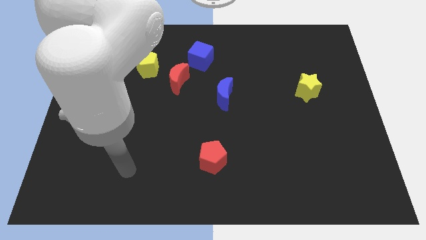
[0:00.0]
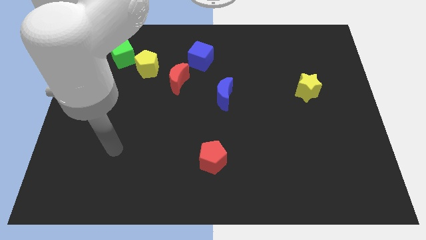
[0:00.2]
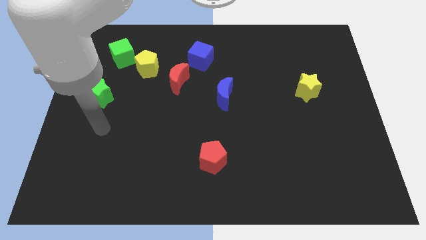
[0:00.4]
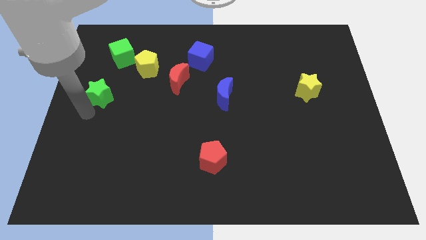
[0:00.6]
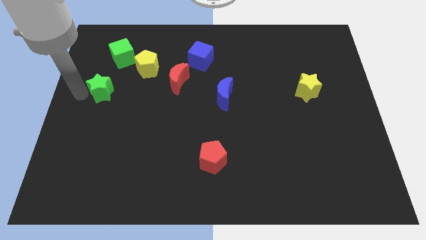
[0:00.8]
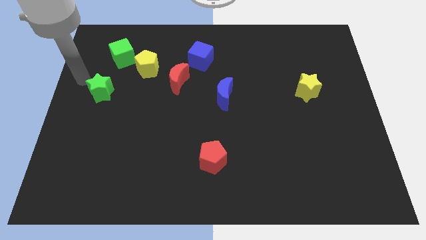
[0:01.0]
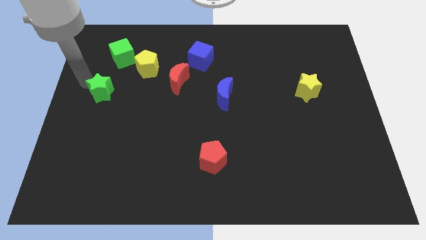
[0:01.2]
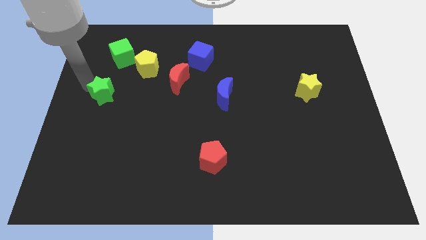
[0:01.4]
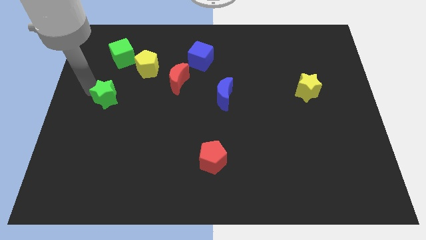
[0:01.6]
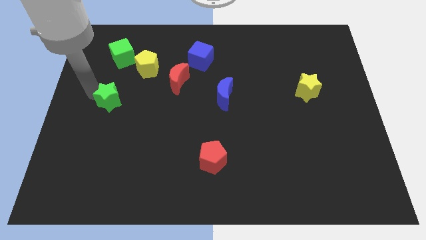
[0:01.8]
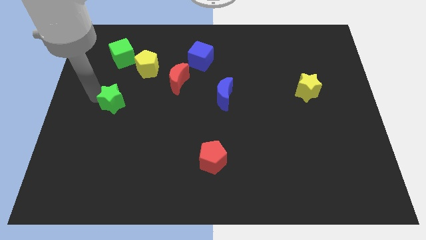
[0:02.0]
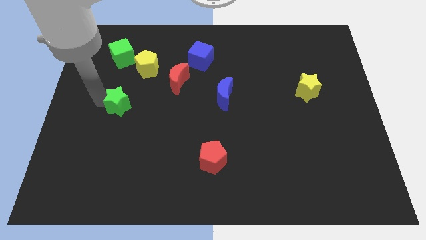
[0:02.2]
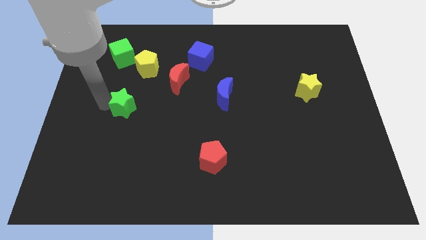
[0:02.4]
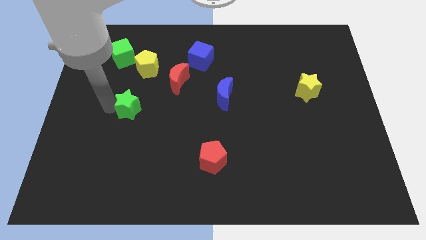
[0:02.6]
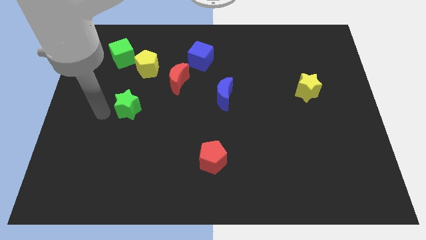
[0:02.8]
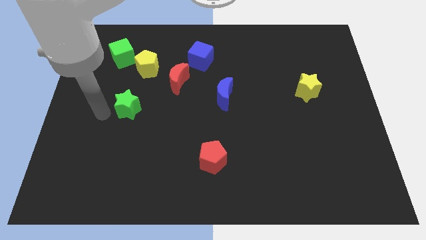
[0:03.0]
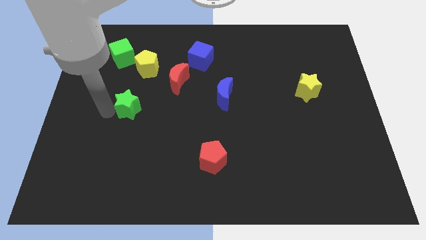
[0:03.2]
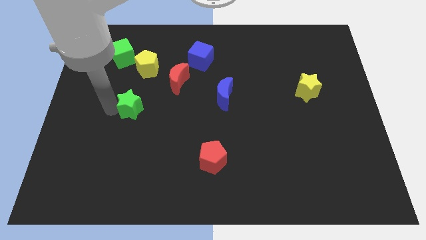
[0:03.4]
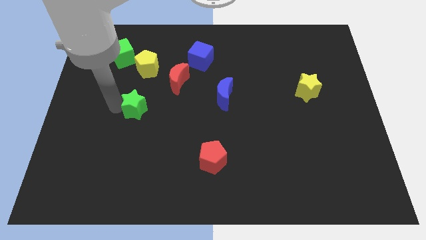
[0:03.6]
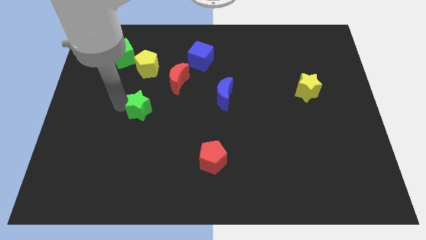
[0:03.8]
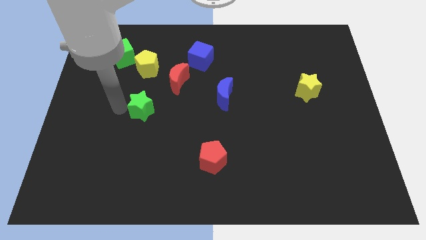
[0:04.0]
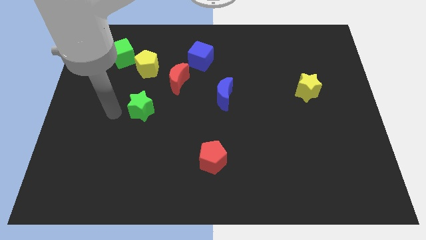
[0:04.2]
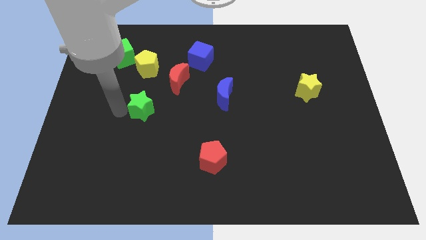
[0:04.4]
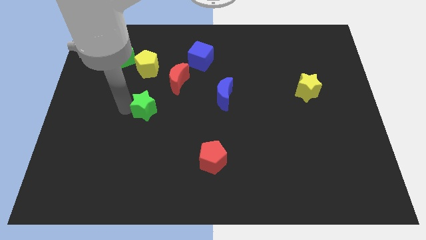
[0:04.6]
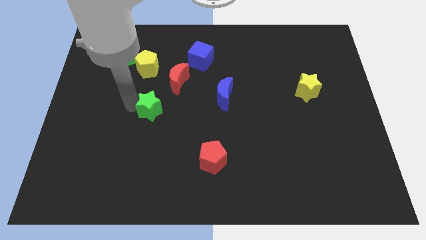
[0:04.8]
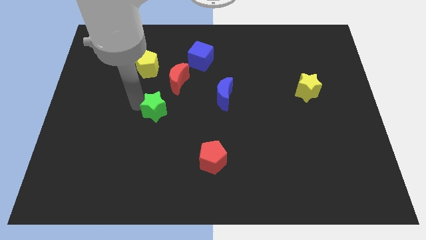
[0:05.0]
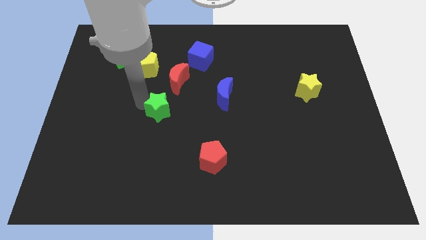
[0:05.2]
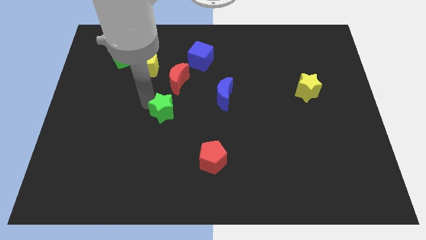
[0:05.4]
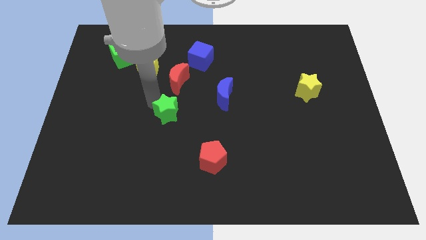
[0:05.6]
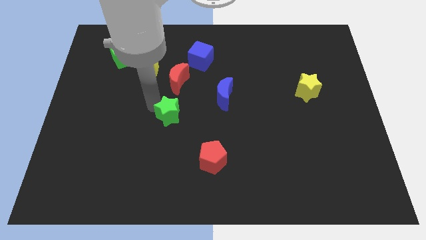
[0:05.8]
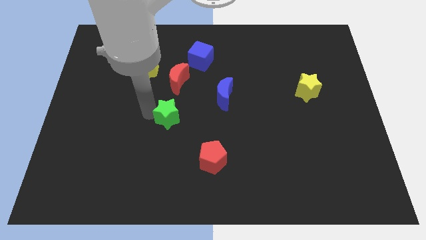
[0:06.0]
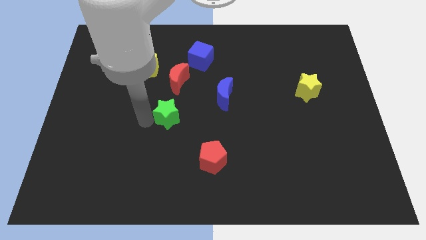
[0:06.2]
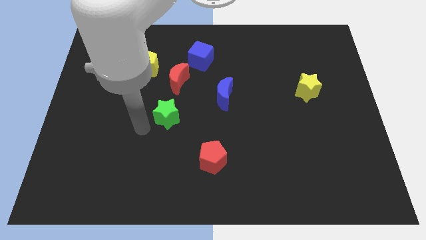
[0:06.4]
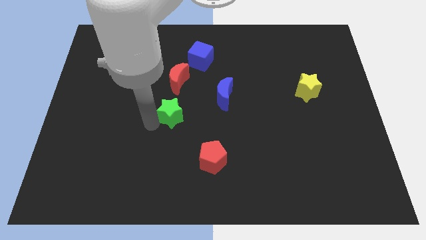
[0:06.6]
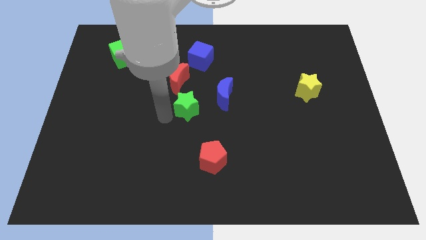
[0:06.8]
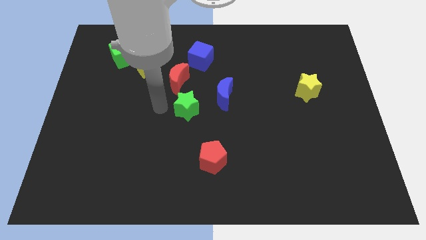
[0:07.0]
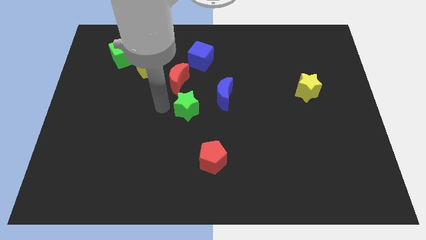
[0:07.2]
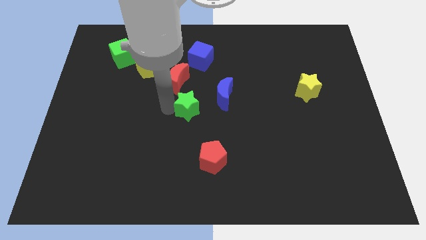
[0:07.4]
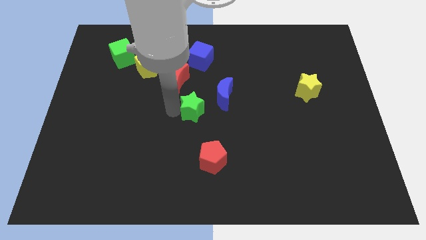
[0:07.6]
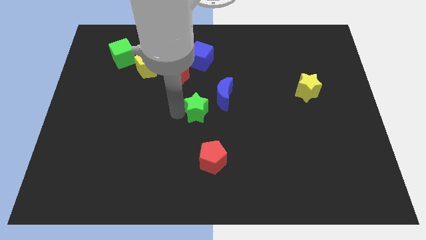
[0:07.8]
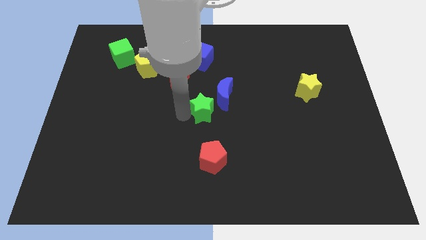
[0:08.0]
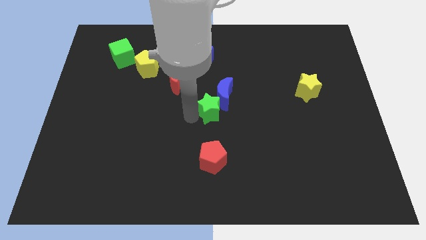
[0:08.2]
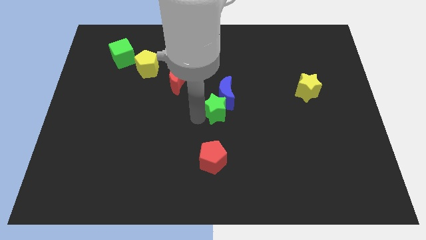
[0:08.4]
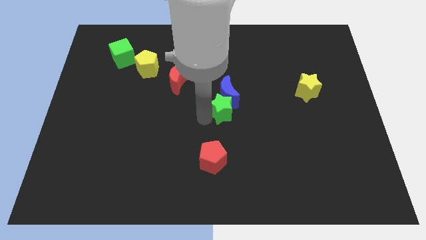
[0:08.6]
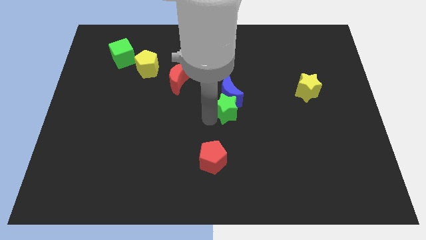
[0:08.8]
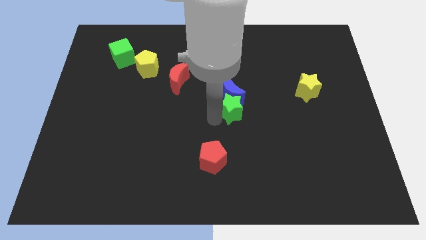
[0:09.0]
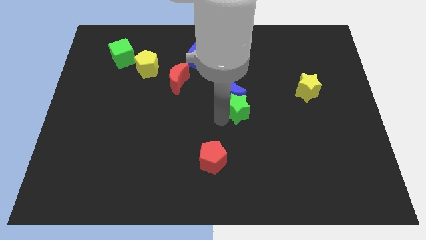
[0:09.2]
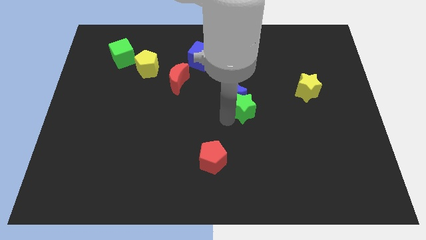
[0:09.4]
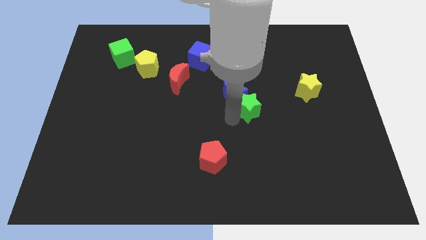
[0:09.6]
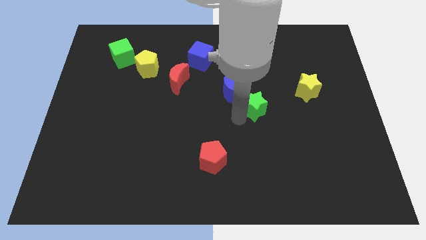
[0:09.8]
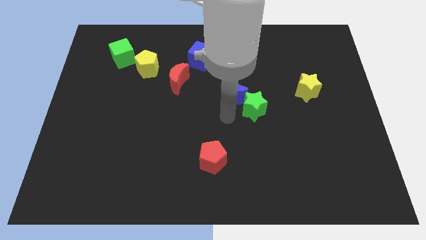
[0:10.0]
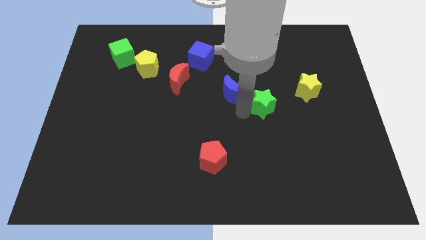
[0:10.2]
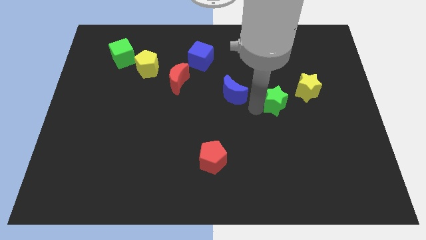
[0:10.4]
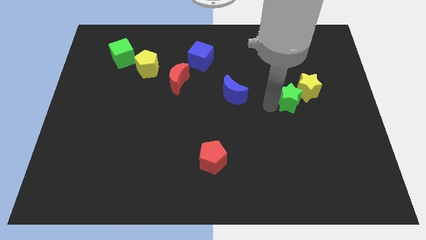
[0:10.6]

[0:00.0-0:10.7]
move the green star close to the yellow star

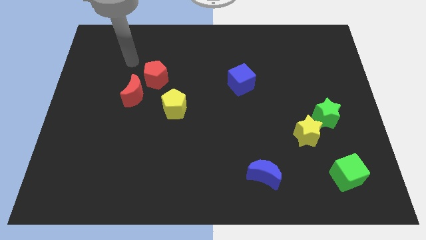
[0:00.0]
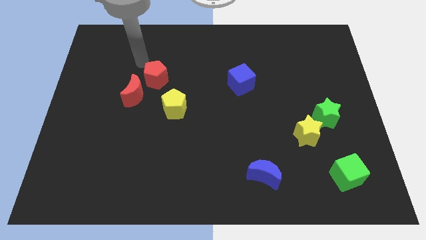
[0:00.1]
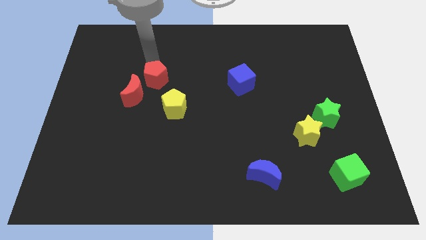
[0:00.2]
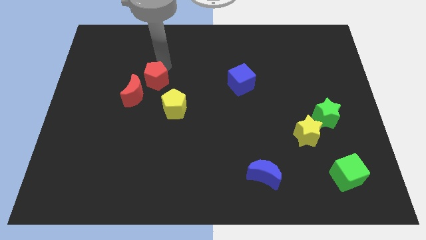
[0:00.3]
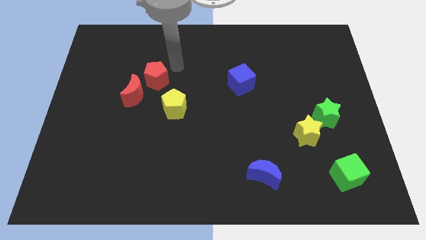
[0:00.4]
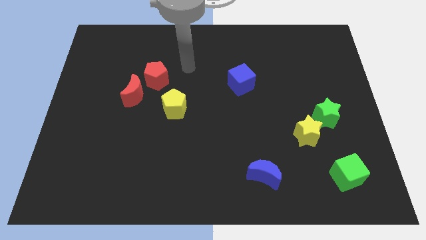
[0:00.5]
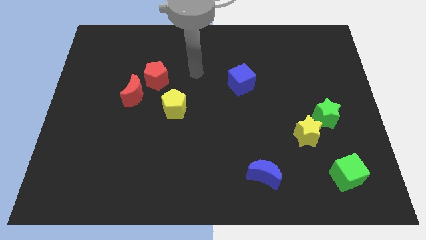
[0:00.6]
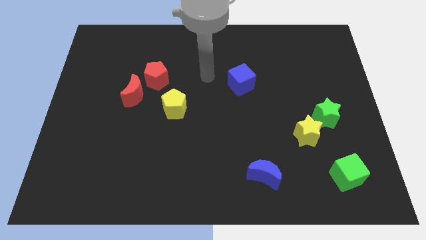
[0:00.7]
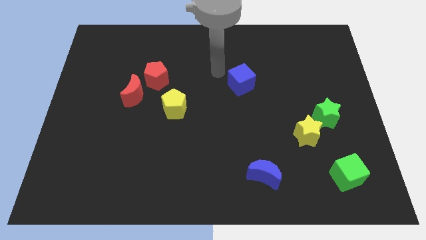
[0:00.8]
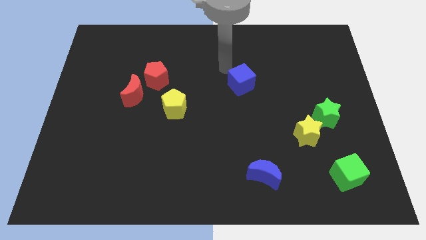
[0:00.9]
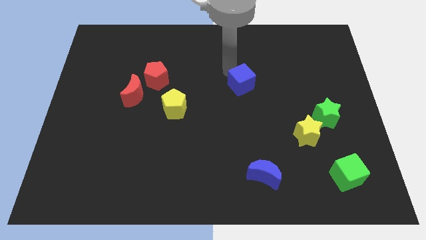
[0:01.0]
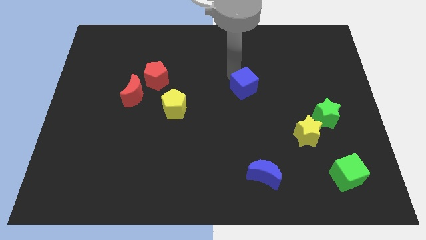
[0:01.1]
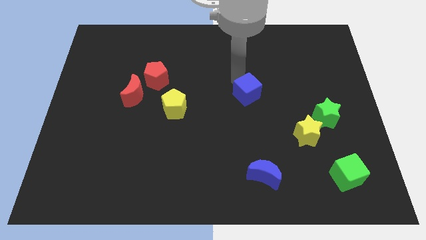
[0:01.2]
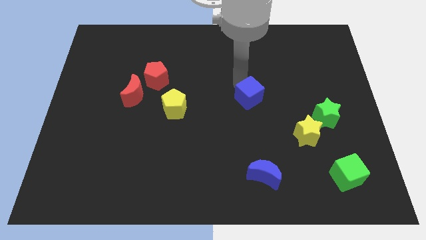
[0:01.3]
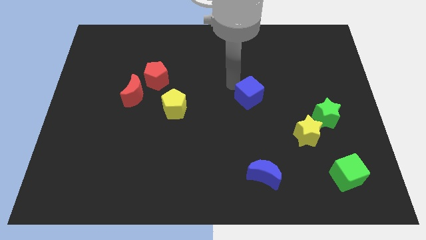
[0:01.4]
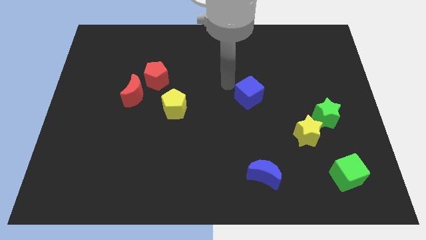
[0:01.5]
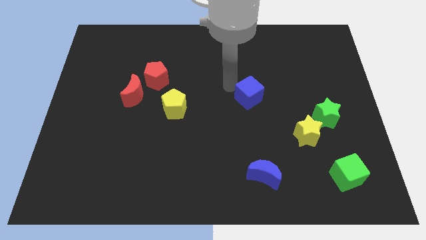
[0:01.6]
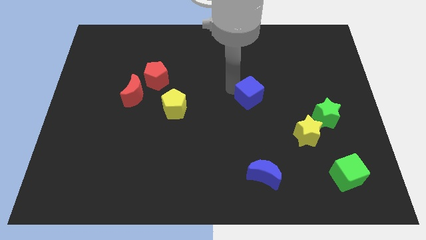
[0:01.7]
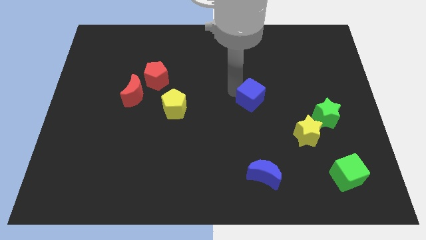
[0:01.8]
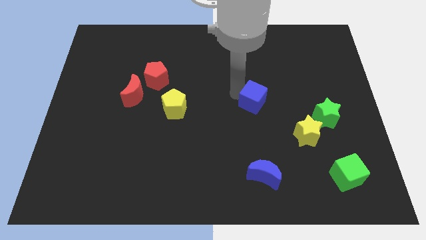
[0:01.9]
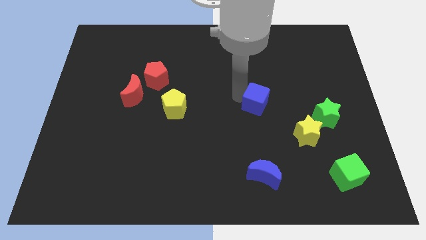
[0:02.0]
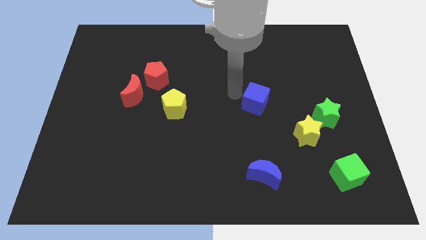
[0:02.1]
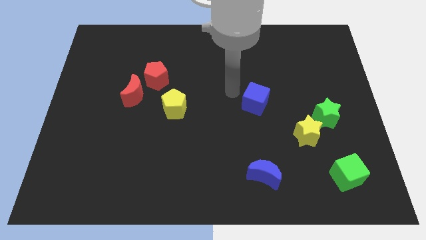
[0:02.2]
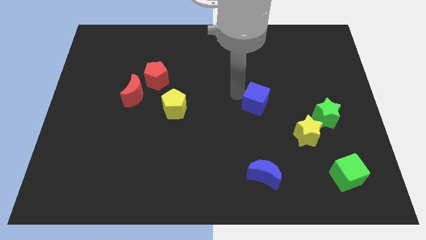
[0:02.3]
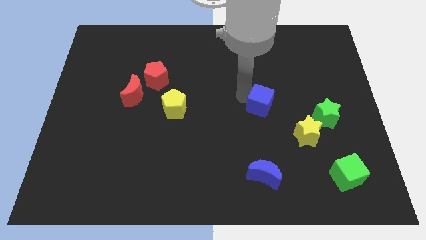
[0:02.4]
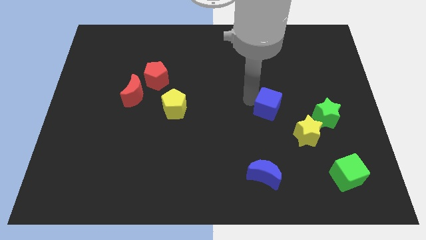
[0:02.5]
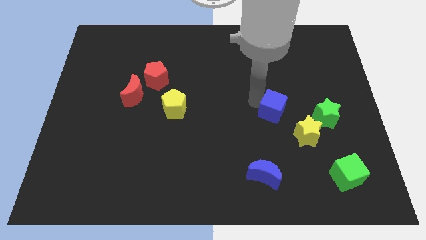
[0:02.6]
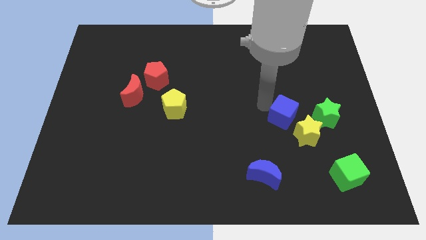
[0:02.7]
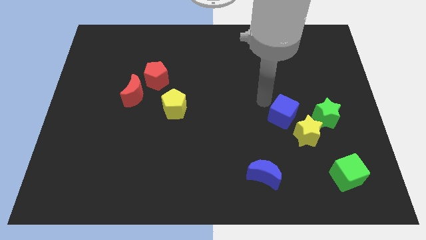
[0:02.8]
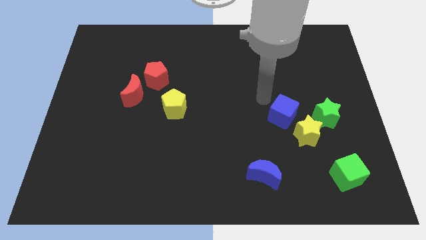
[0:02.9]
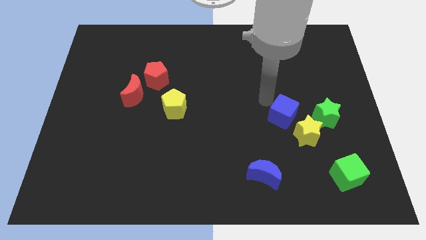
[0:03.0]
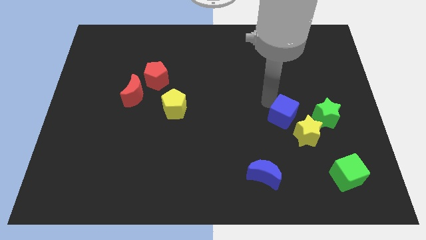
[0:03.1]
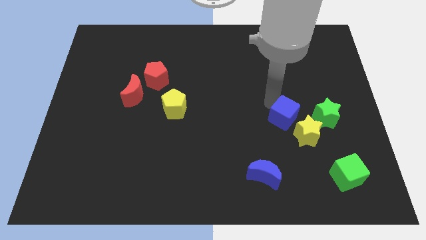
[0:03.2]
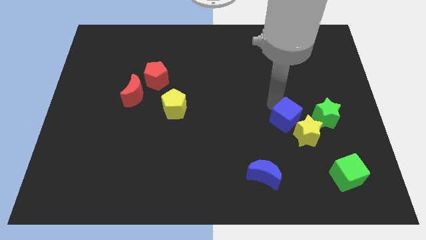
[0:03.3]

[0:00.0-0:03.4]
slide the blue cube to the yellow star
